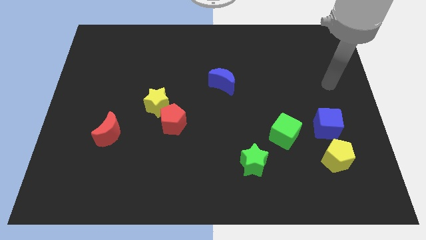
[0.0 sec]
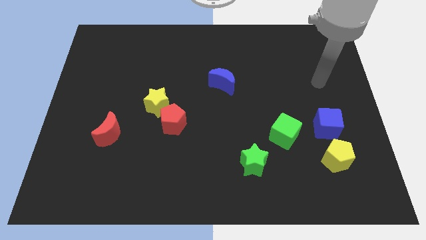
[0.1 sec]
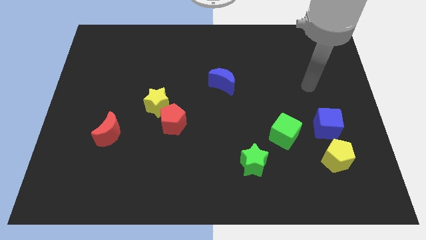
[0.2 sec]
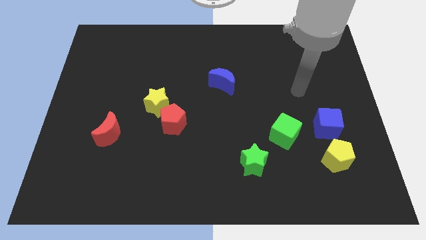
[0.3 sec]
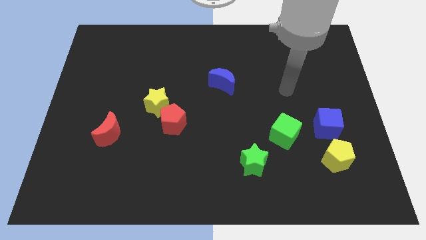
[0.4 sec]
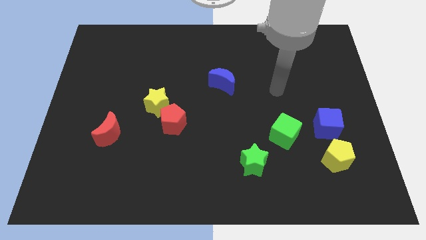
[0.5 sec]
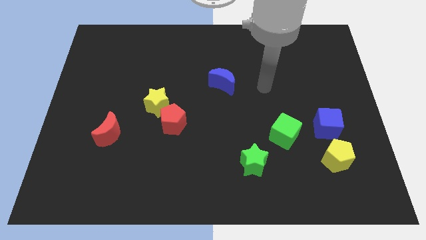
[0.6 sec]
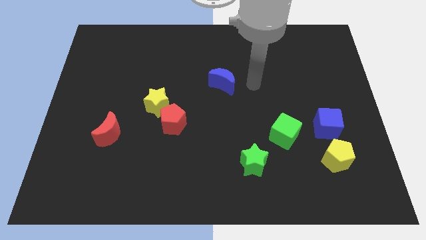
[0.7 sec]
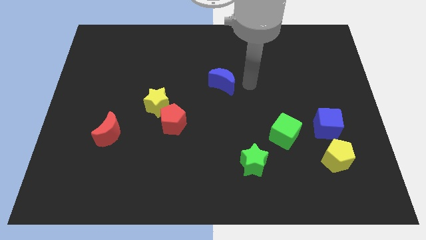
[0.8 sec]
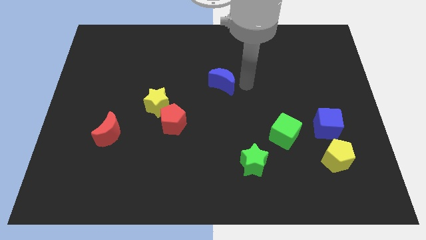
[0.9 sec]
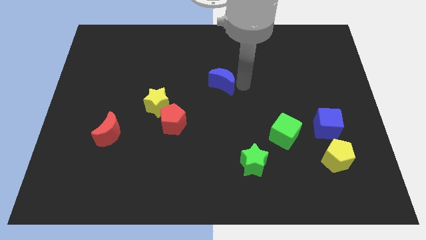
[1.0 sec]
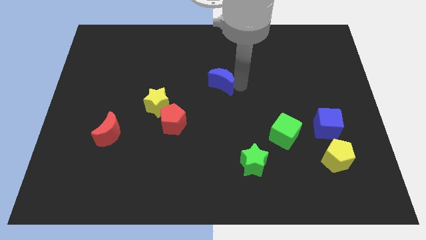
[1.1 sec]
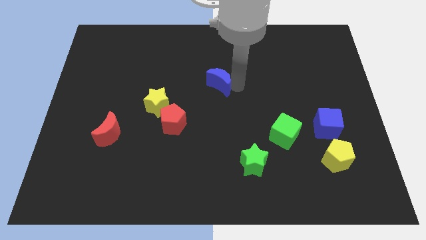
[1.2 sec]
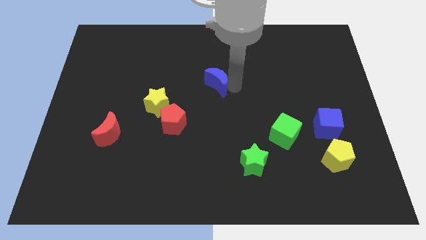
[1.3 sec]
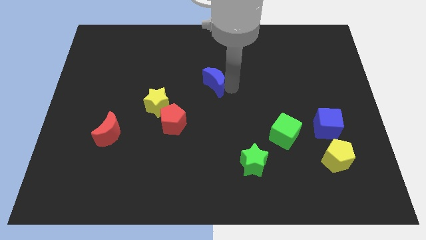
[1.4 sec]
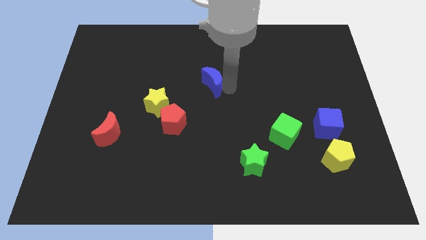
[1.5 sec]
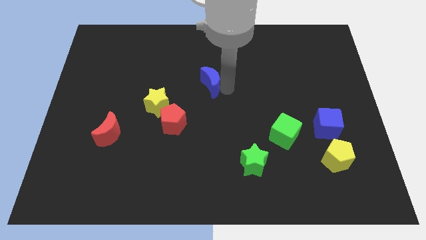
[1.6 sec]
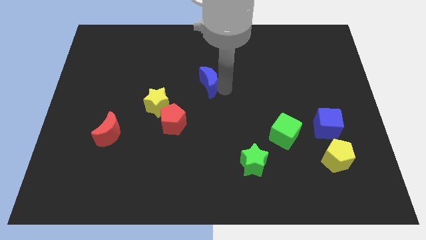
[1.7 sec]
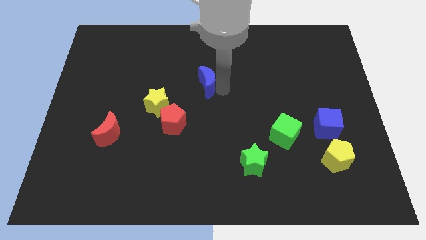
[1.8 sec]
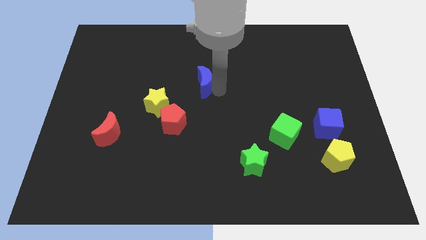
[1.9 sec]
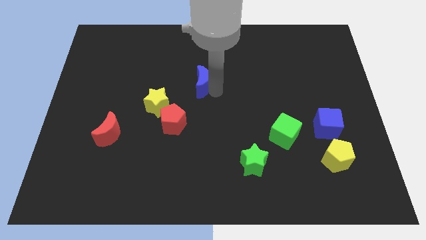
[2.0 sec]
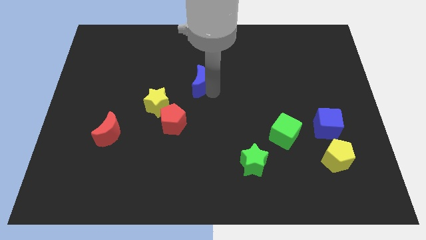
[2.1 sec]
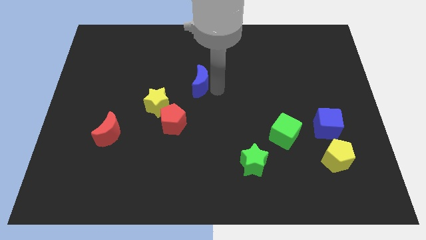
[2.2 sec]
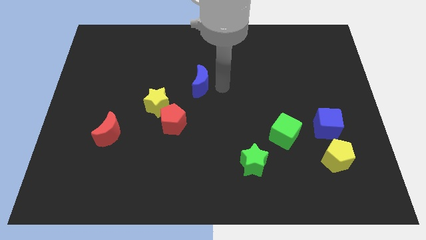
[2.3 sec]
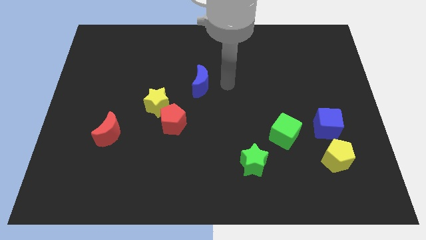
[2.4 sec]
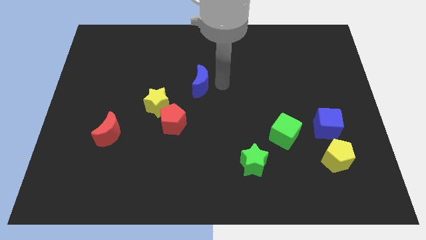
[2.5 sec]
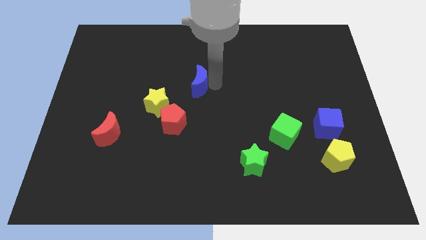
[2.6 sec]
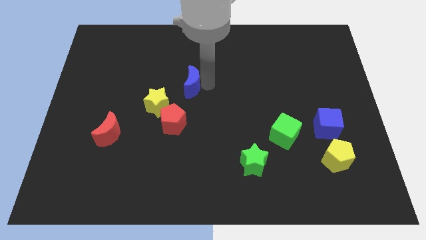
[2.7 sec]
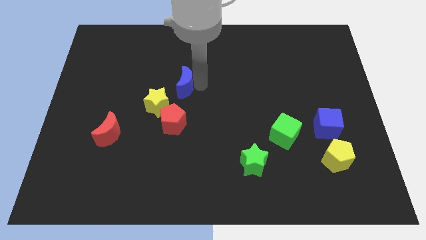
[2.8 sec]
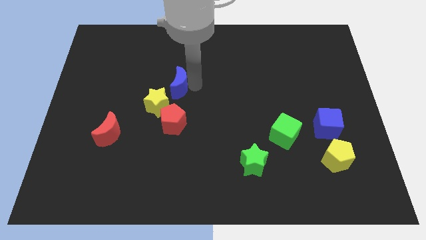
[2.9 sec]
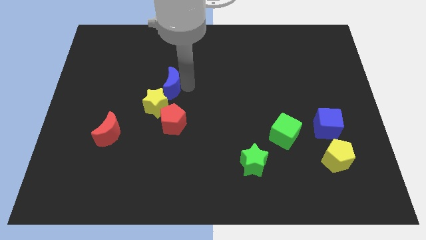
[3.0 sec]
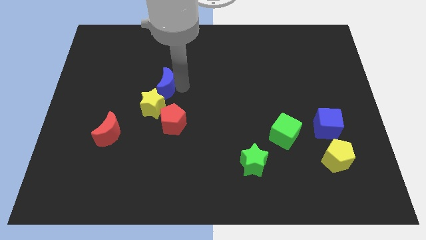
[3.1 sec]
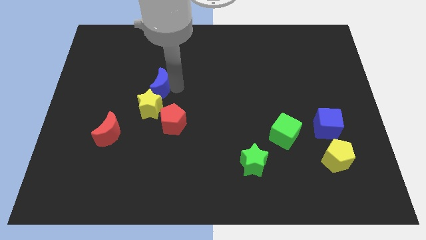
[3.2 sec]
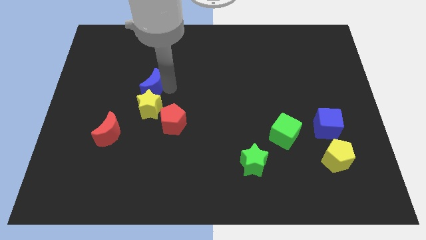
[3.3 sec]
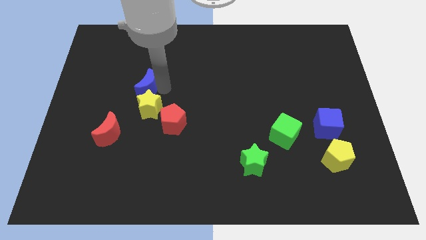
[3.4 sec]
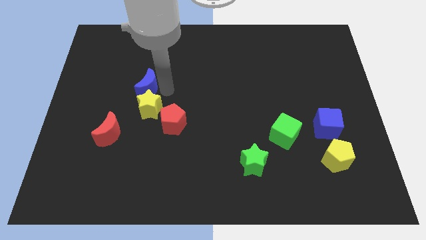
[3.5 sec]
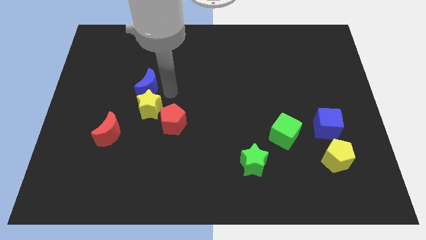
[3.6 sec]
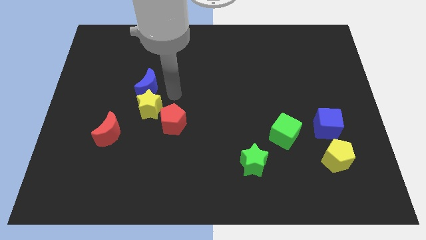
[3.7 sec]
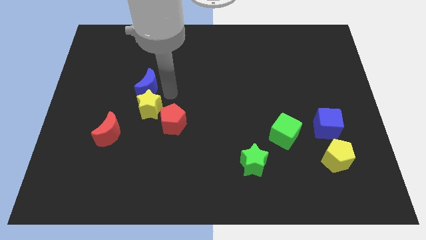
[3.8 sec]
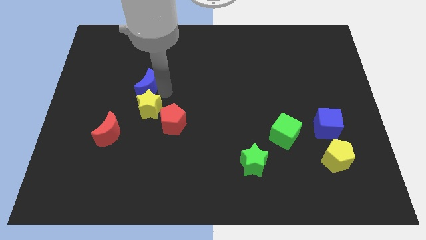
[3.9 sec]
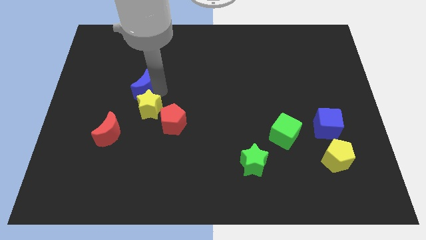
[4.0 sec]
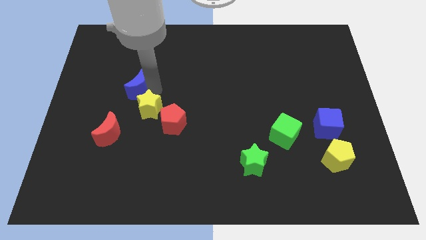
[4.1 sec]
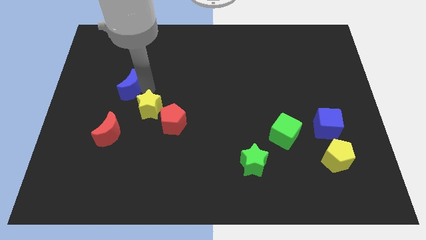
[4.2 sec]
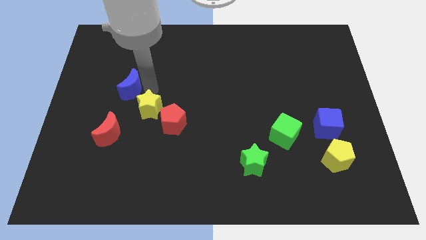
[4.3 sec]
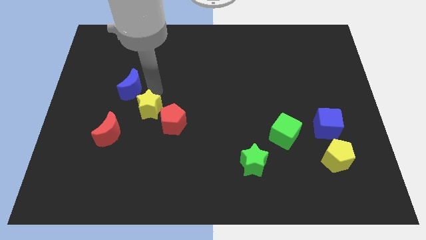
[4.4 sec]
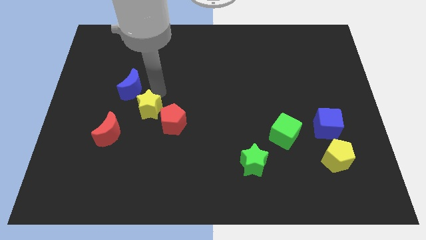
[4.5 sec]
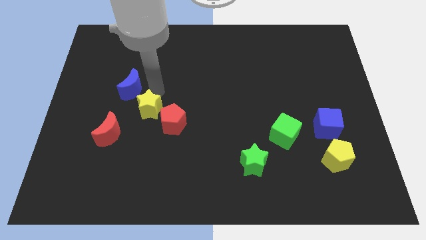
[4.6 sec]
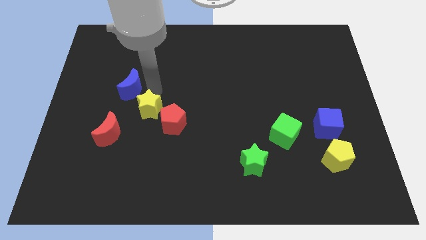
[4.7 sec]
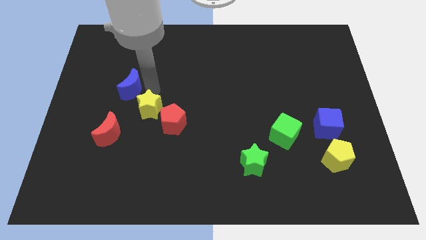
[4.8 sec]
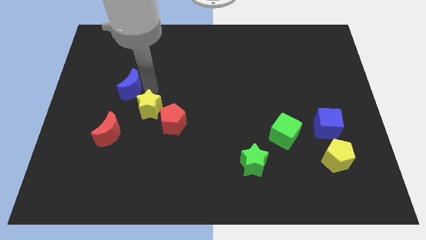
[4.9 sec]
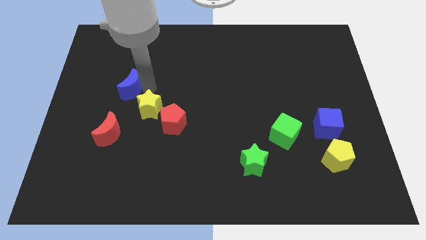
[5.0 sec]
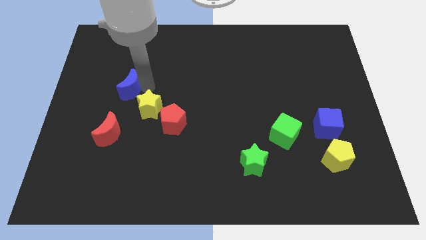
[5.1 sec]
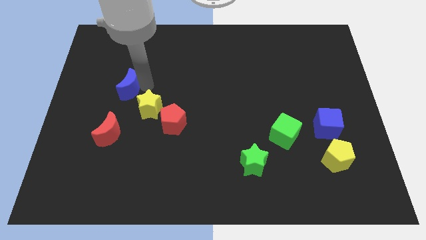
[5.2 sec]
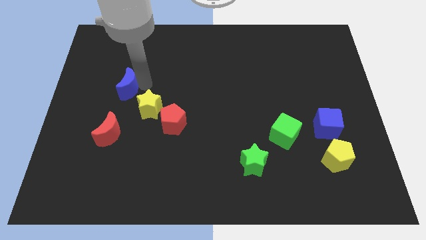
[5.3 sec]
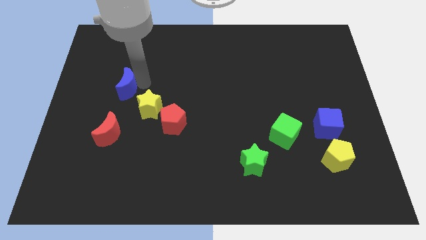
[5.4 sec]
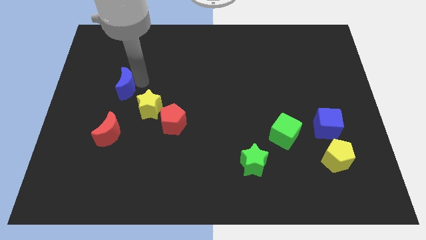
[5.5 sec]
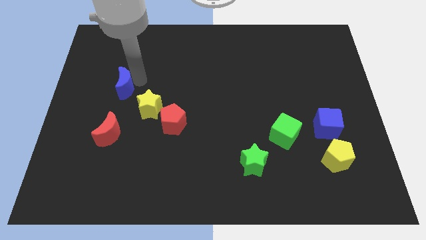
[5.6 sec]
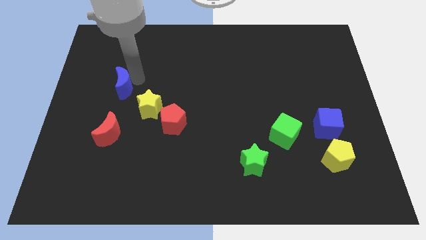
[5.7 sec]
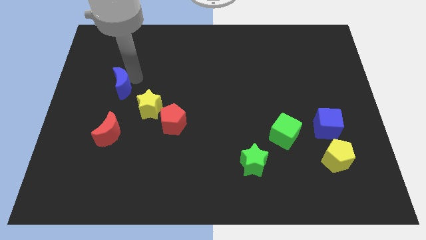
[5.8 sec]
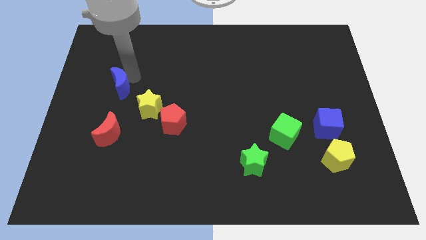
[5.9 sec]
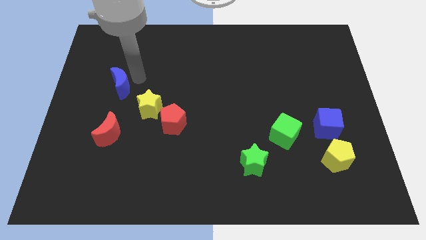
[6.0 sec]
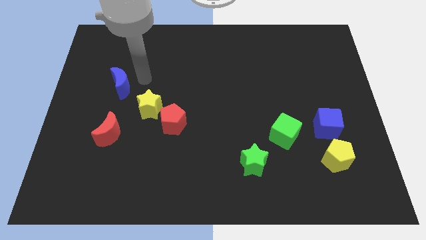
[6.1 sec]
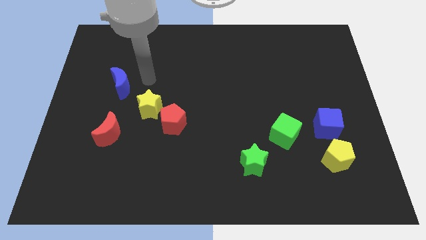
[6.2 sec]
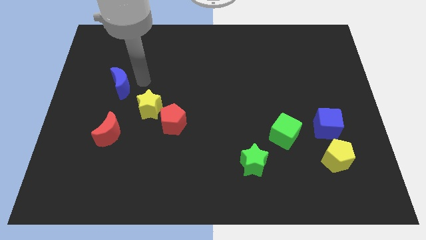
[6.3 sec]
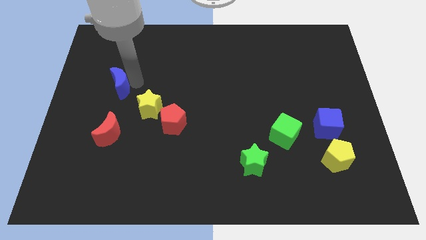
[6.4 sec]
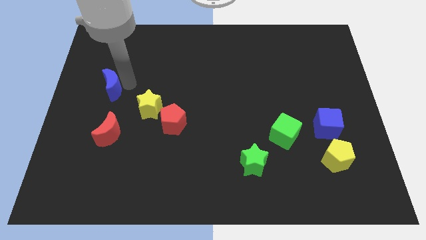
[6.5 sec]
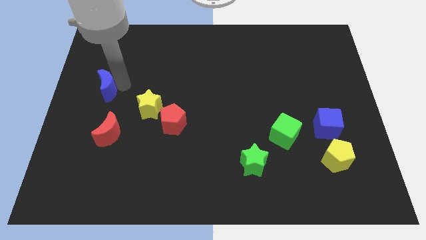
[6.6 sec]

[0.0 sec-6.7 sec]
slide the blue moon to the center left
